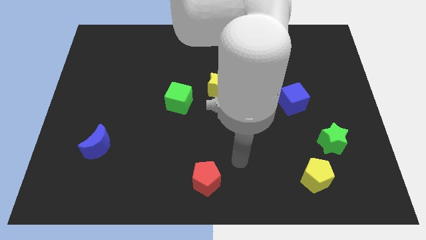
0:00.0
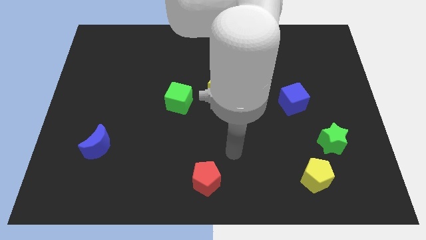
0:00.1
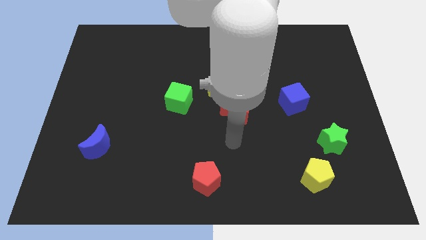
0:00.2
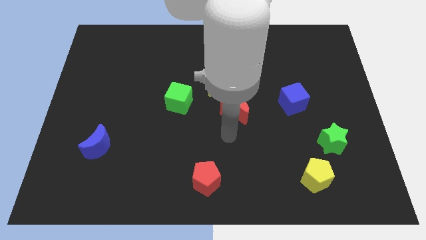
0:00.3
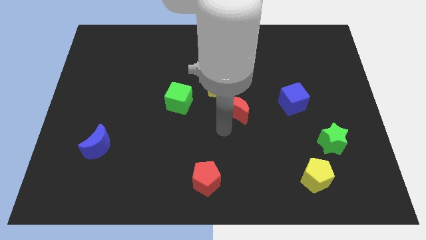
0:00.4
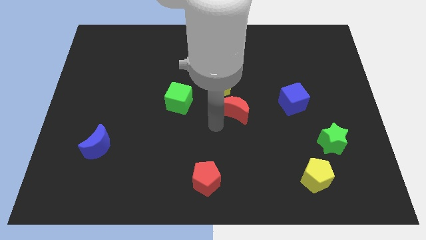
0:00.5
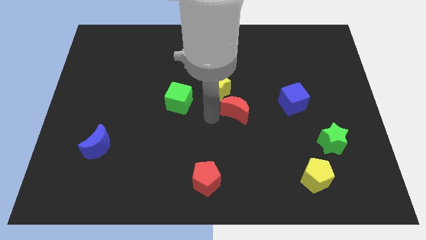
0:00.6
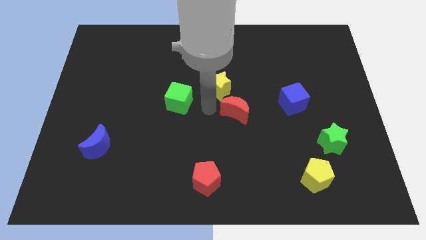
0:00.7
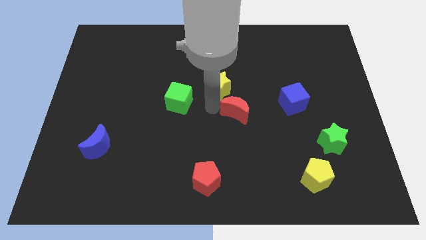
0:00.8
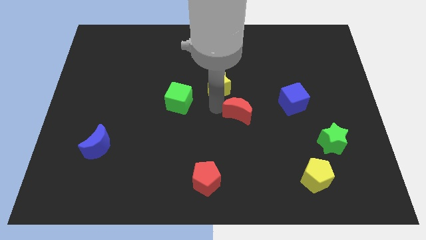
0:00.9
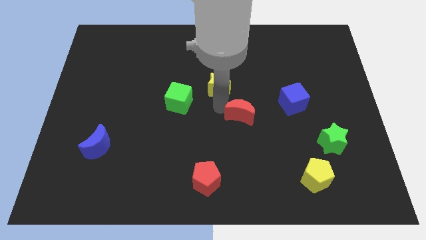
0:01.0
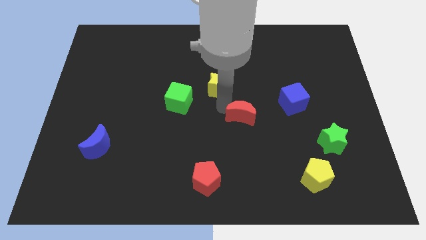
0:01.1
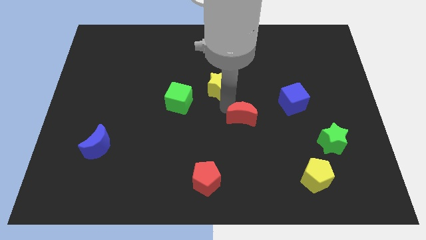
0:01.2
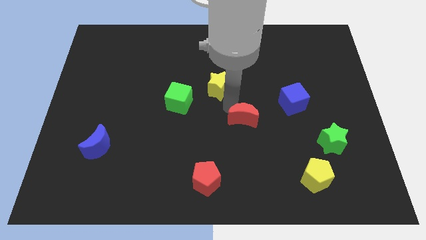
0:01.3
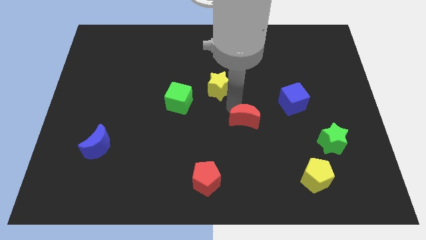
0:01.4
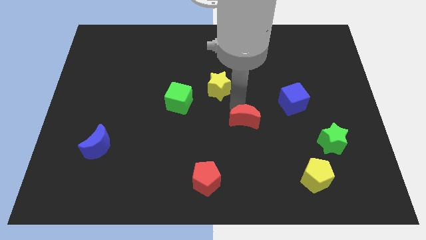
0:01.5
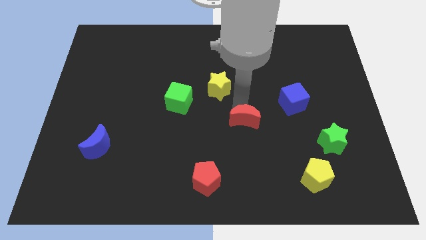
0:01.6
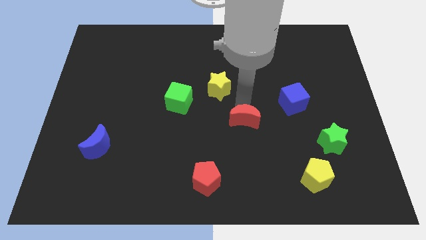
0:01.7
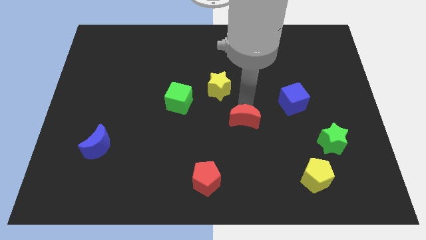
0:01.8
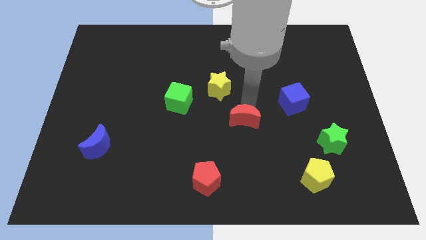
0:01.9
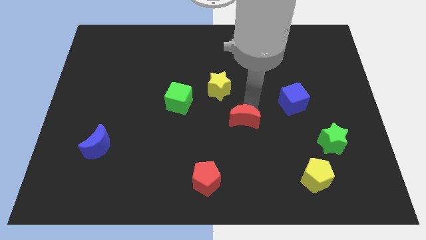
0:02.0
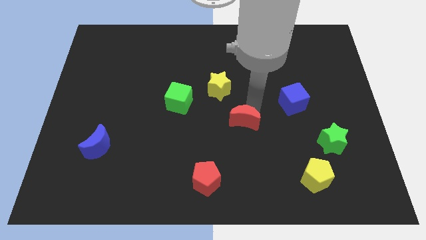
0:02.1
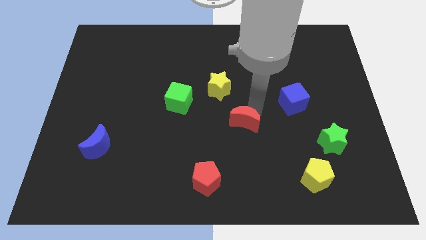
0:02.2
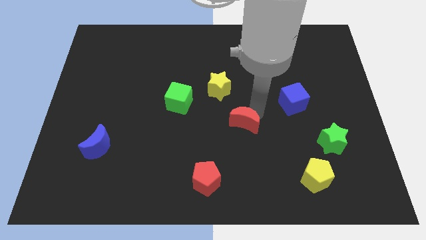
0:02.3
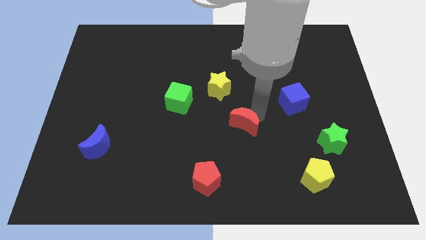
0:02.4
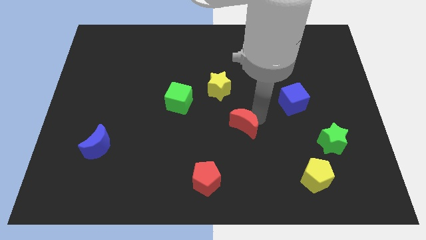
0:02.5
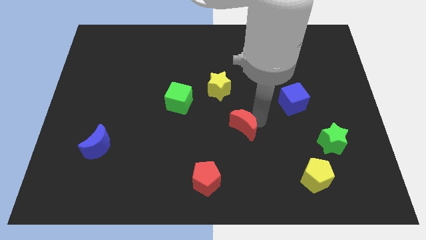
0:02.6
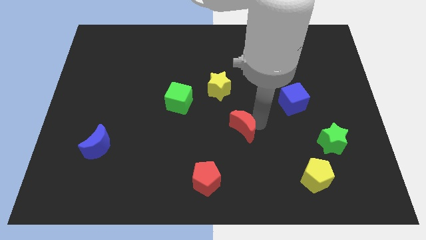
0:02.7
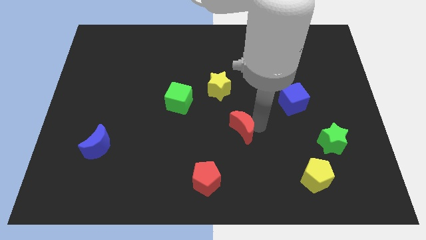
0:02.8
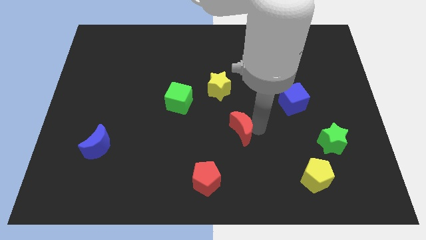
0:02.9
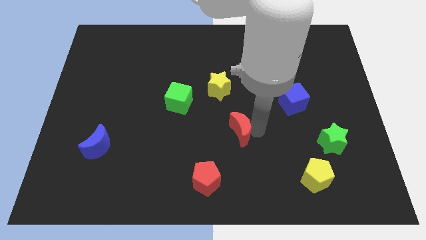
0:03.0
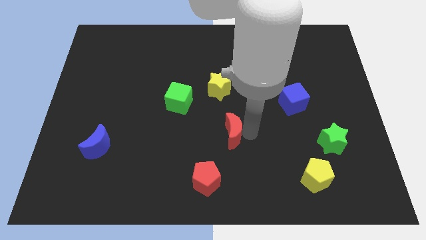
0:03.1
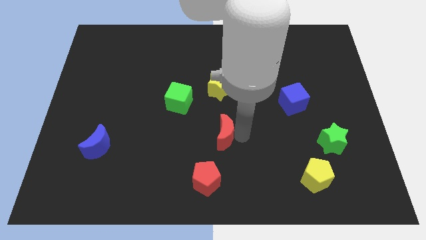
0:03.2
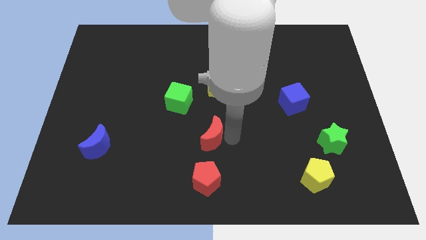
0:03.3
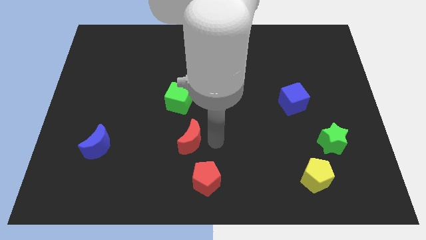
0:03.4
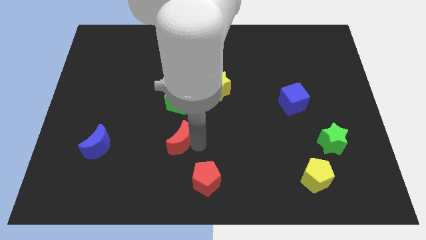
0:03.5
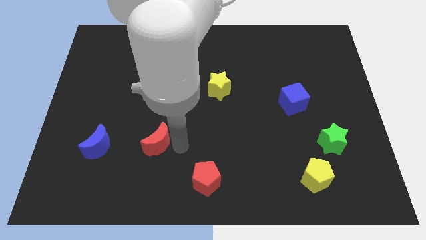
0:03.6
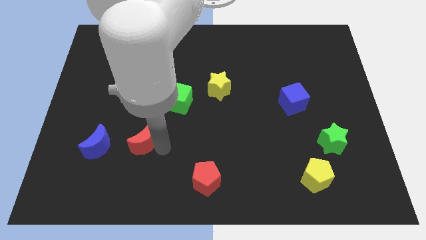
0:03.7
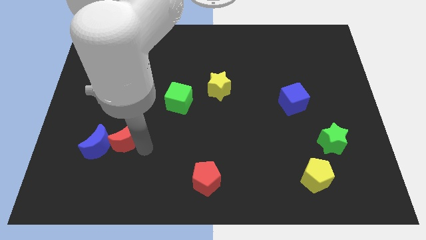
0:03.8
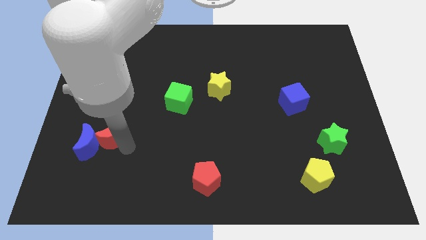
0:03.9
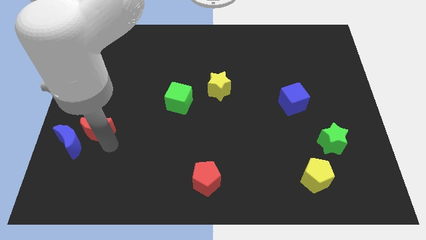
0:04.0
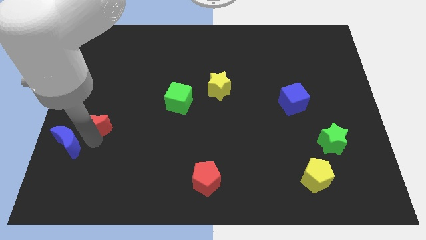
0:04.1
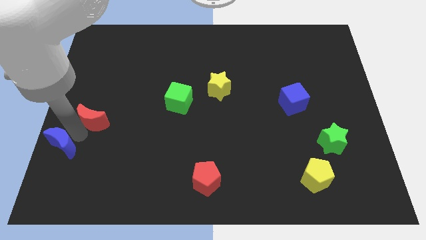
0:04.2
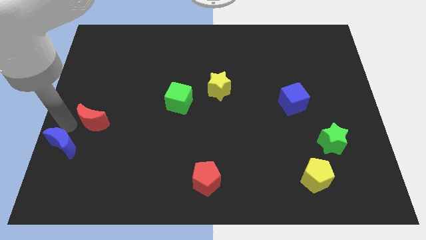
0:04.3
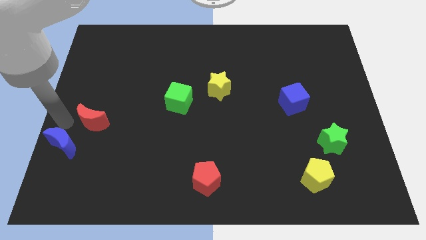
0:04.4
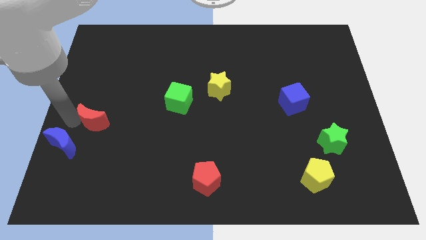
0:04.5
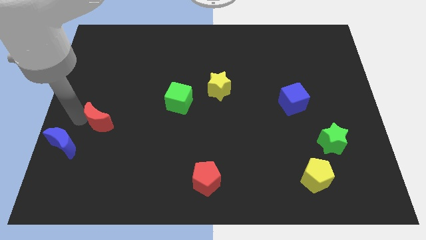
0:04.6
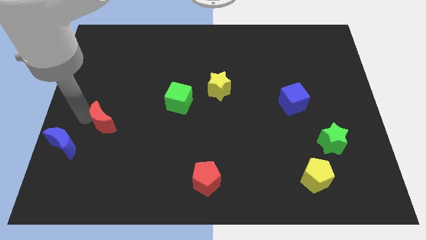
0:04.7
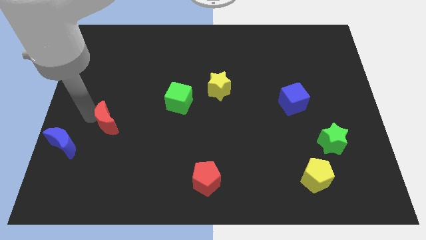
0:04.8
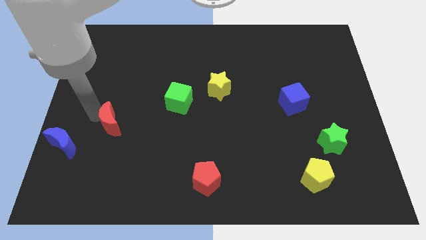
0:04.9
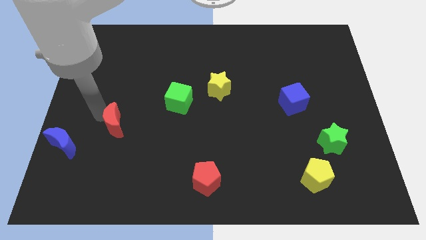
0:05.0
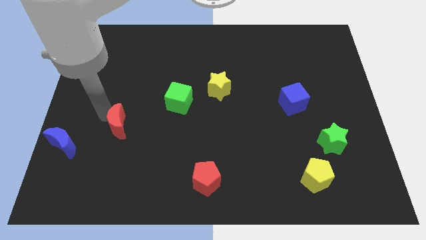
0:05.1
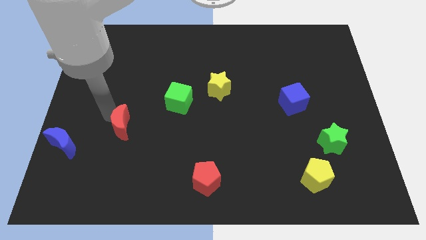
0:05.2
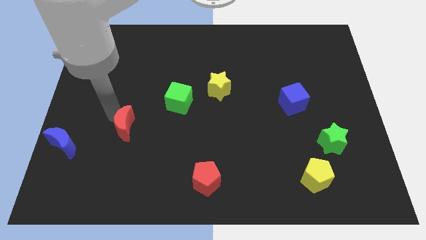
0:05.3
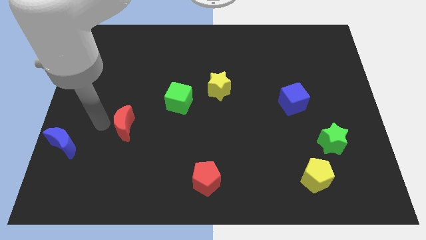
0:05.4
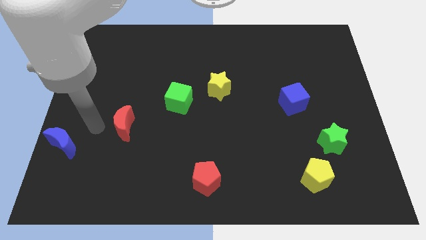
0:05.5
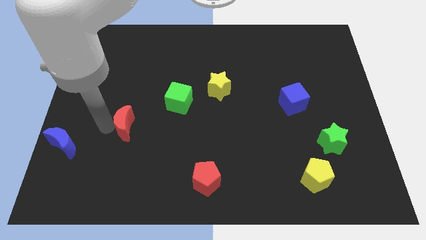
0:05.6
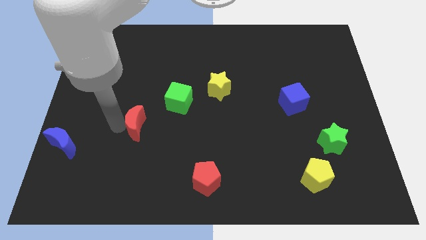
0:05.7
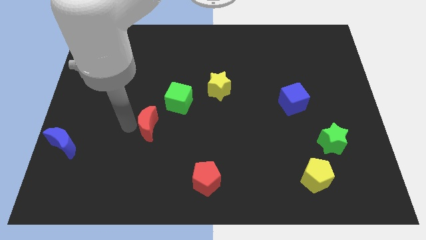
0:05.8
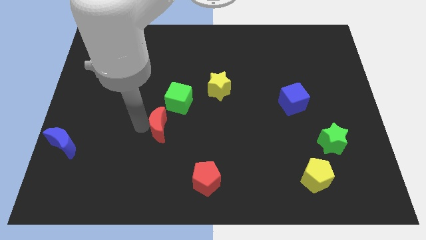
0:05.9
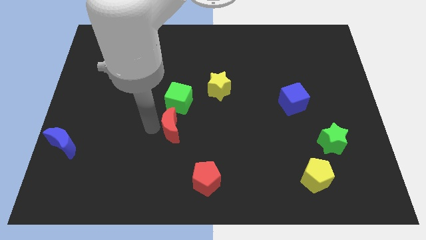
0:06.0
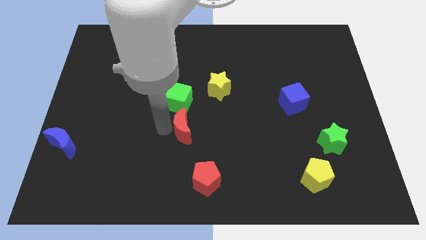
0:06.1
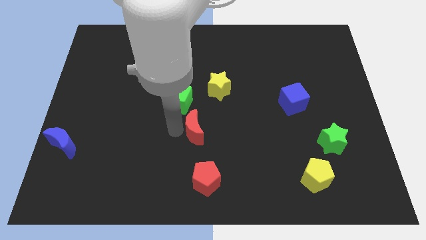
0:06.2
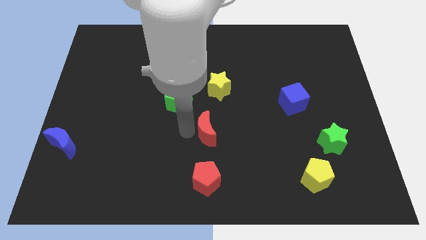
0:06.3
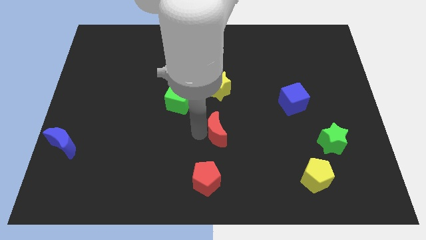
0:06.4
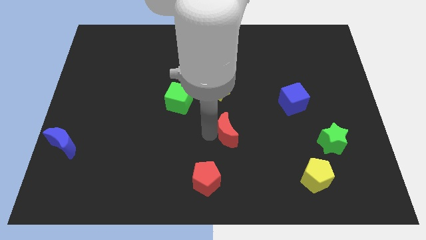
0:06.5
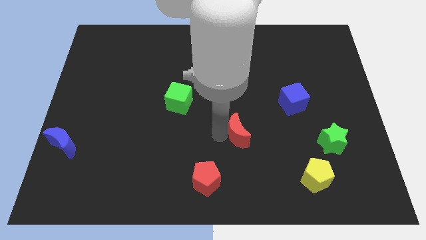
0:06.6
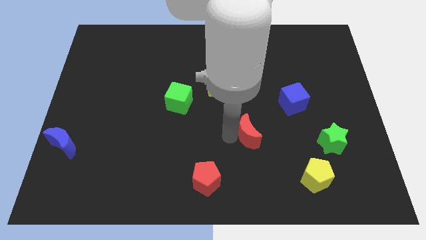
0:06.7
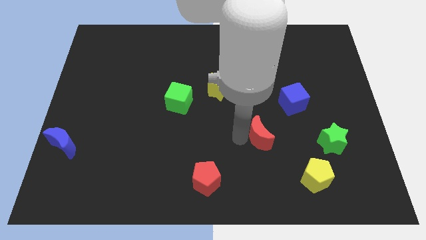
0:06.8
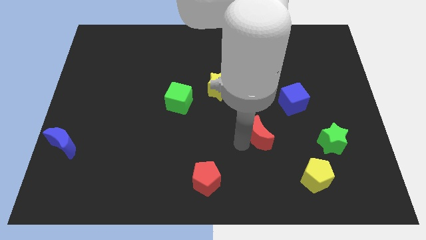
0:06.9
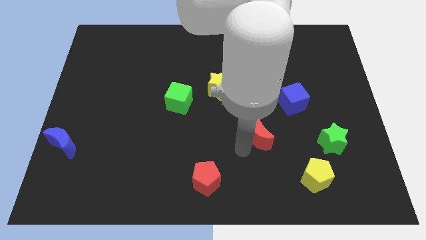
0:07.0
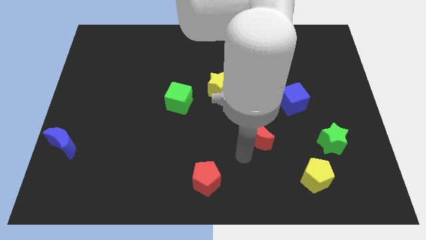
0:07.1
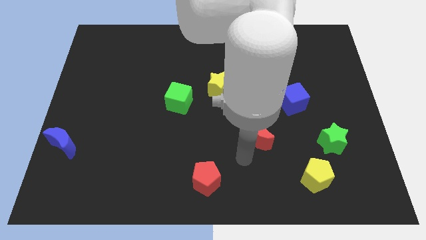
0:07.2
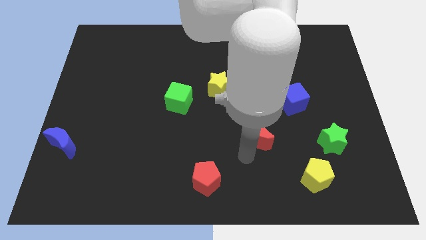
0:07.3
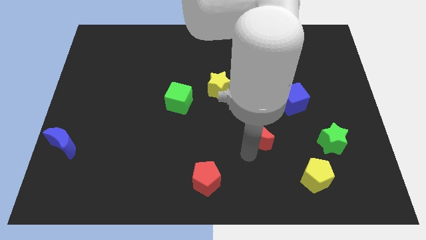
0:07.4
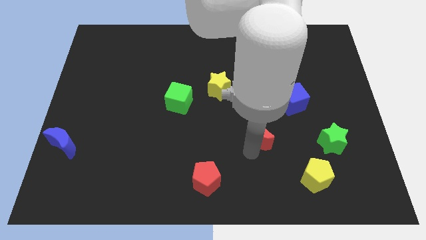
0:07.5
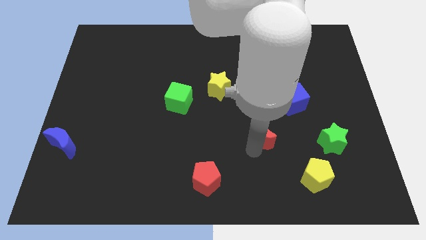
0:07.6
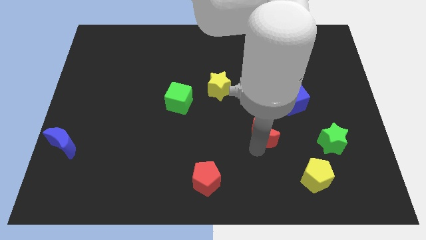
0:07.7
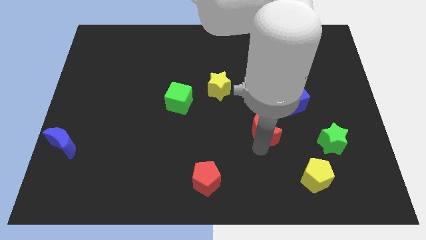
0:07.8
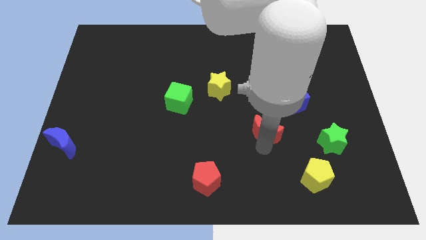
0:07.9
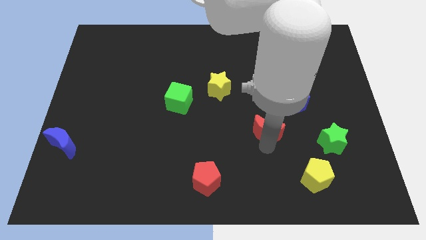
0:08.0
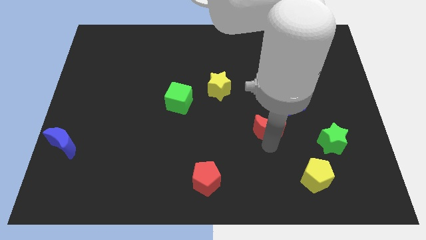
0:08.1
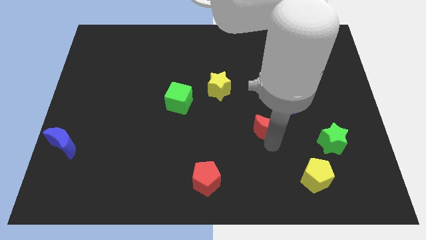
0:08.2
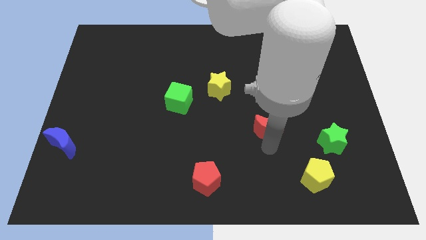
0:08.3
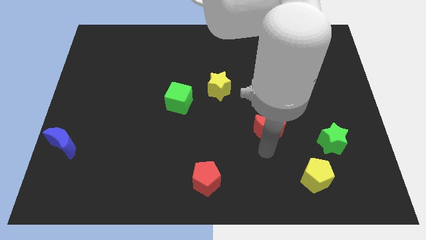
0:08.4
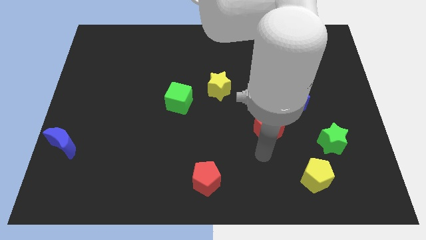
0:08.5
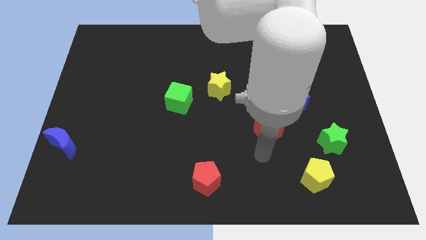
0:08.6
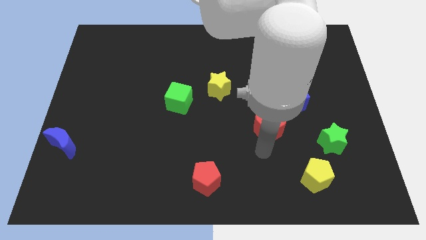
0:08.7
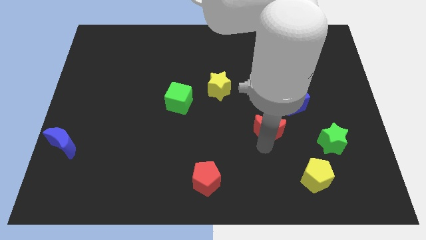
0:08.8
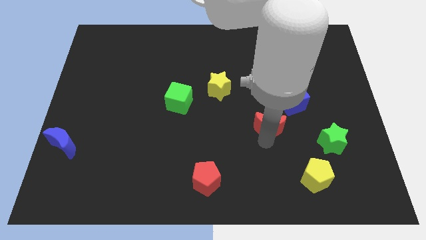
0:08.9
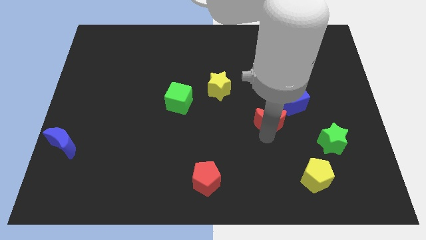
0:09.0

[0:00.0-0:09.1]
slightly slide the red moon to the right
